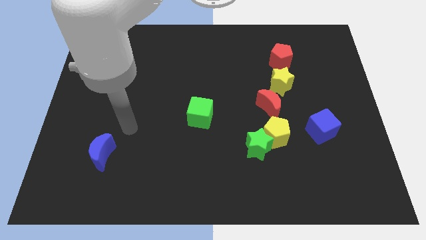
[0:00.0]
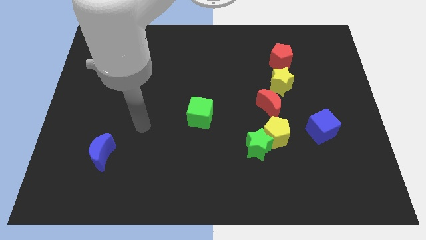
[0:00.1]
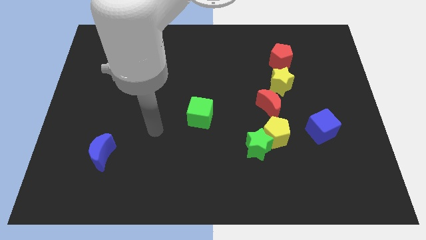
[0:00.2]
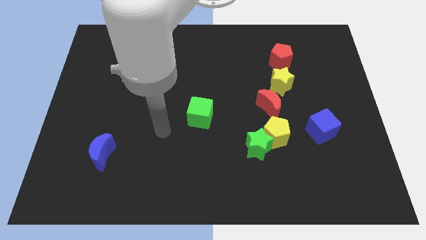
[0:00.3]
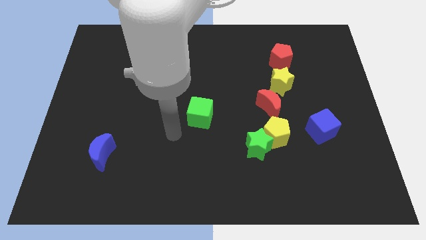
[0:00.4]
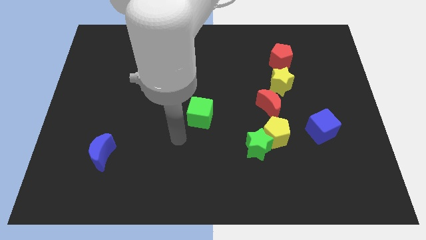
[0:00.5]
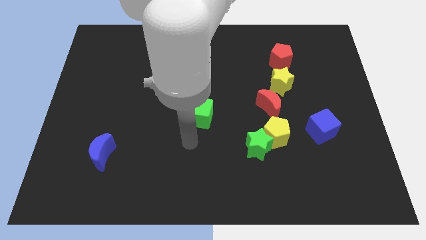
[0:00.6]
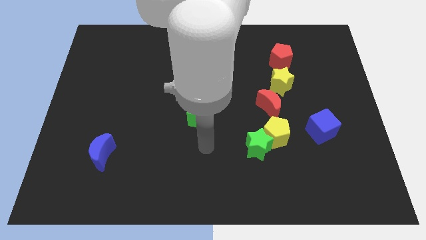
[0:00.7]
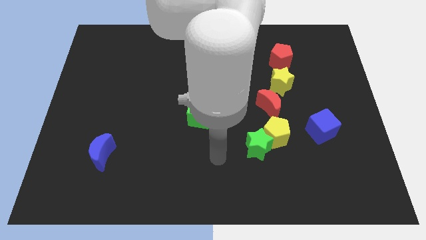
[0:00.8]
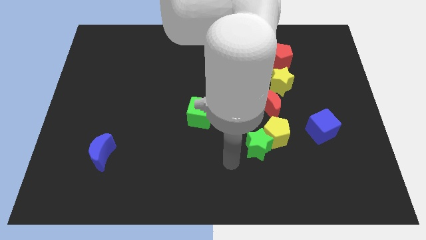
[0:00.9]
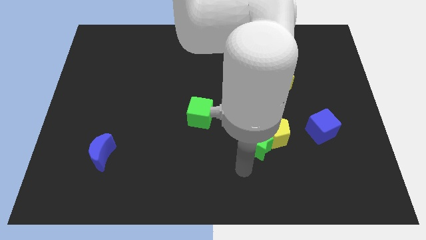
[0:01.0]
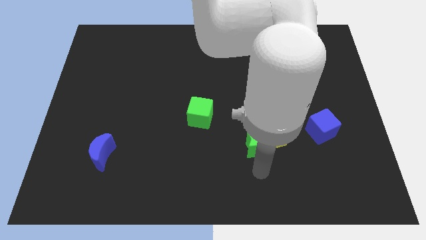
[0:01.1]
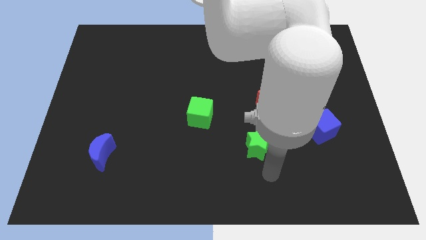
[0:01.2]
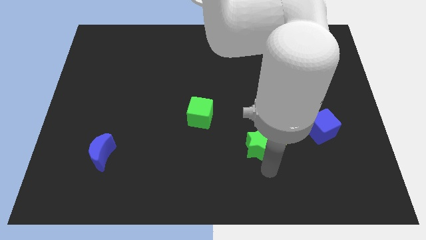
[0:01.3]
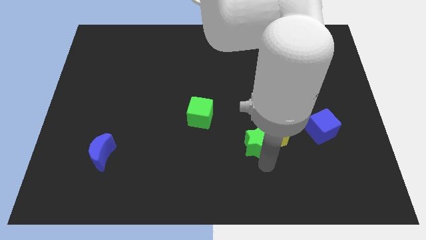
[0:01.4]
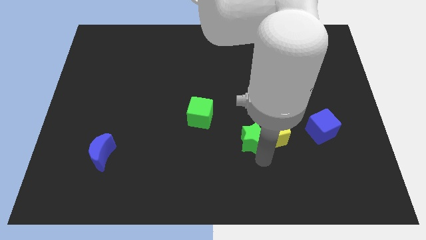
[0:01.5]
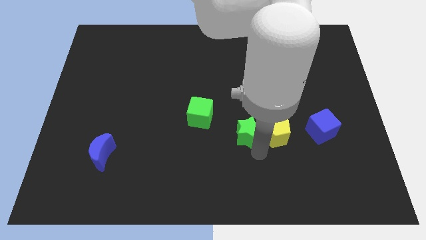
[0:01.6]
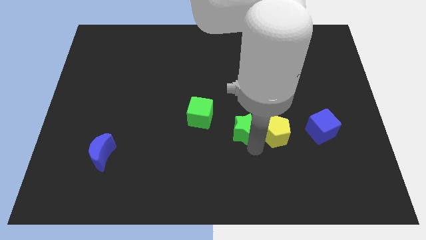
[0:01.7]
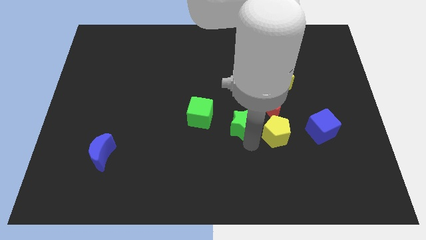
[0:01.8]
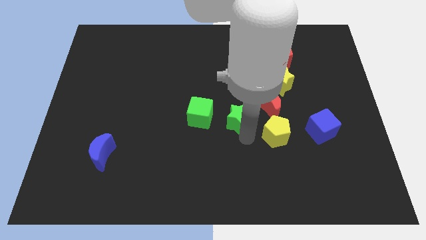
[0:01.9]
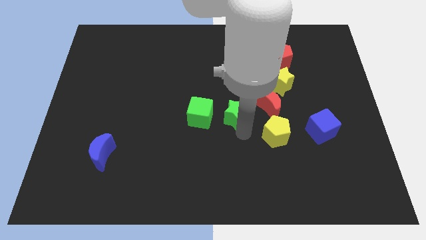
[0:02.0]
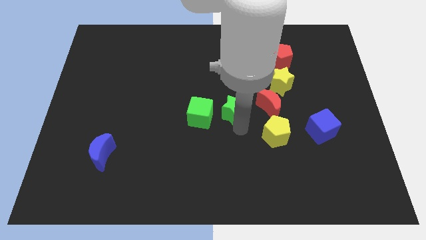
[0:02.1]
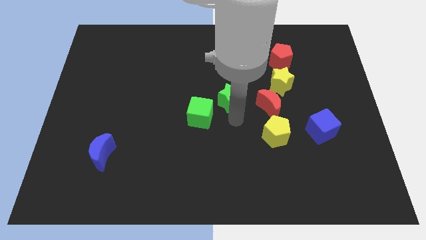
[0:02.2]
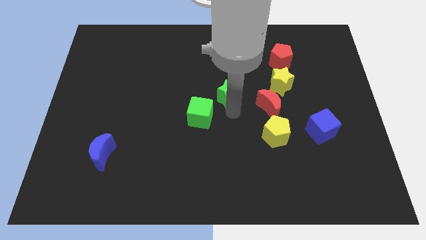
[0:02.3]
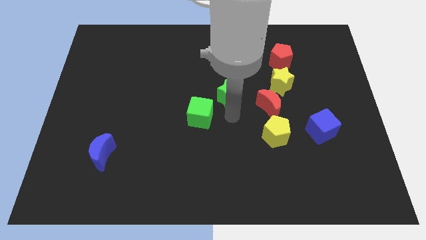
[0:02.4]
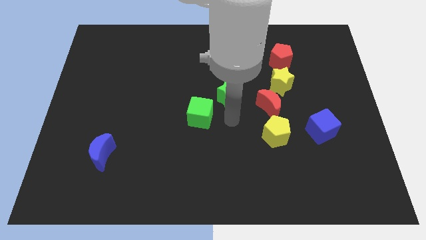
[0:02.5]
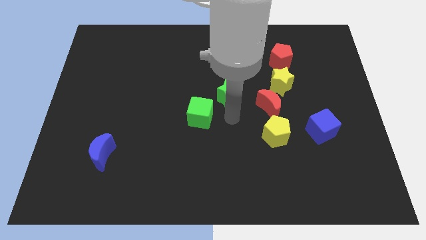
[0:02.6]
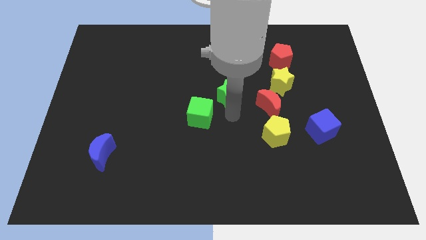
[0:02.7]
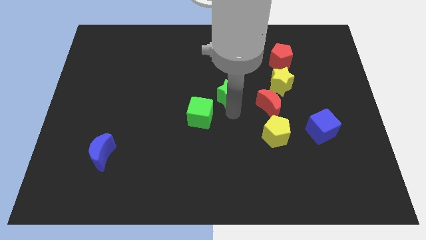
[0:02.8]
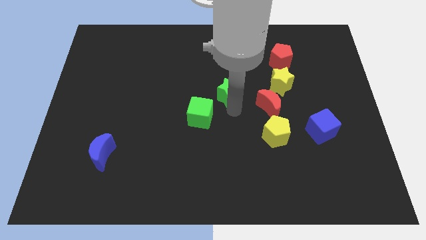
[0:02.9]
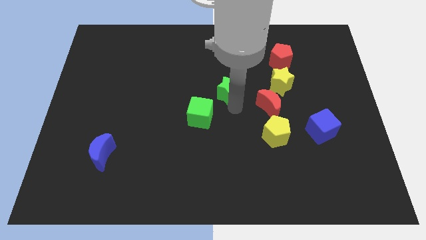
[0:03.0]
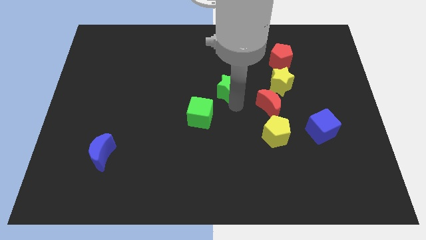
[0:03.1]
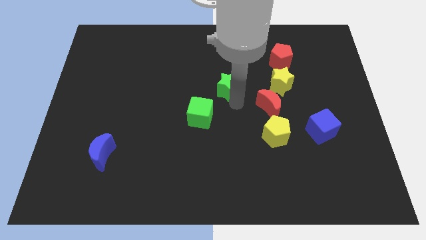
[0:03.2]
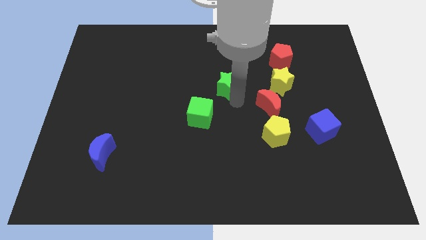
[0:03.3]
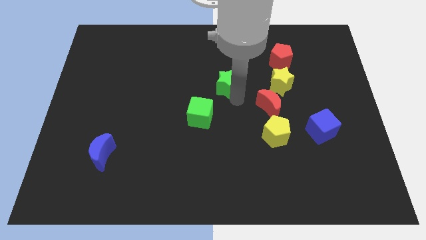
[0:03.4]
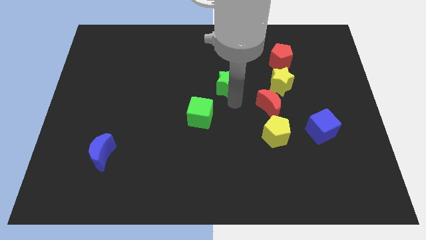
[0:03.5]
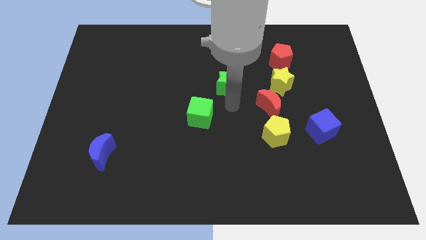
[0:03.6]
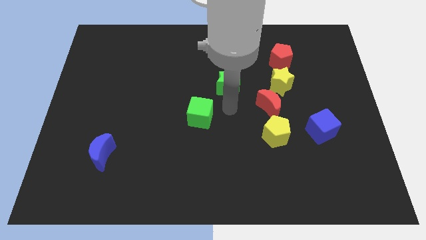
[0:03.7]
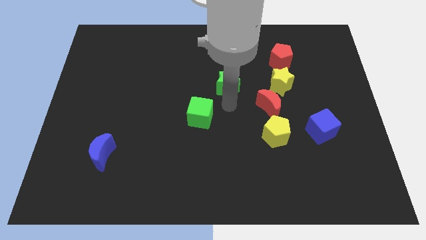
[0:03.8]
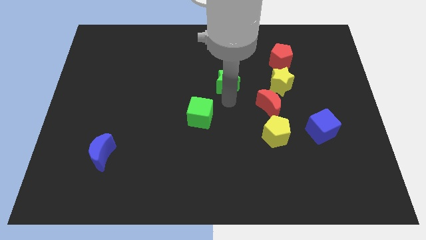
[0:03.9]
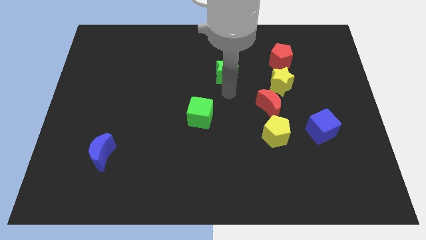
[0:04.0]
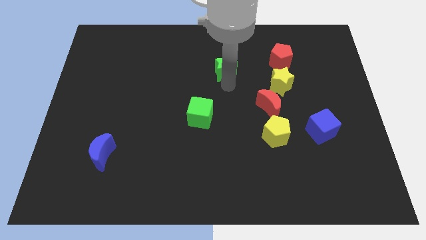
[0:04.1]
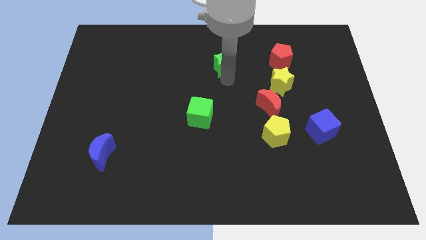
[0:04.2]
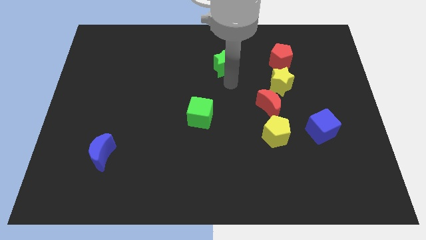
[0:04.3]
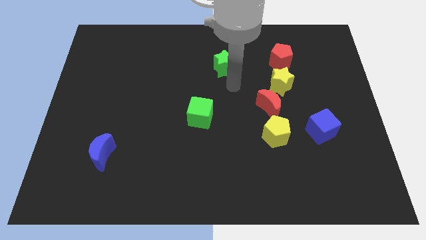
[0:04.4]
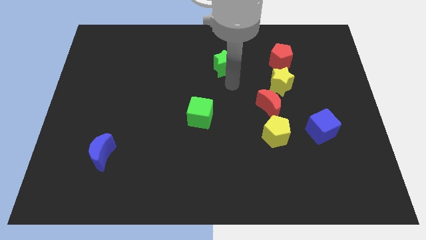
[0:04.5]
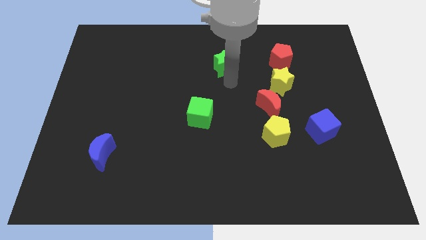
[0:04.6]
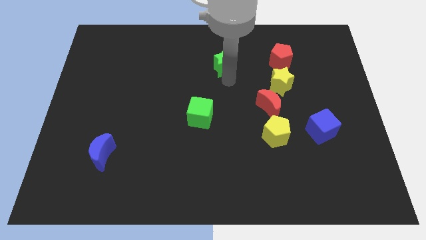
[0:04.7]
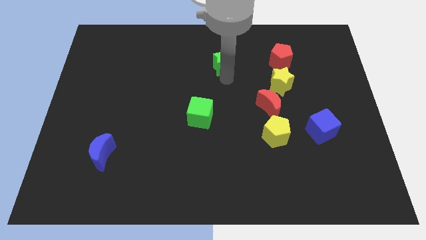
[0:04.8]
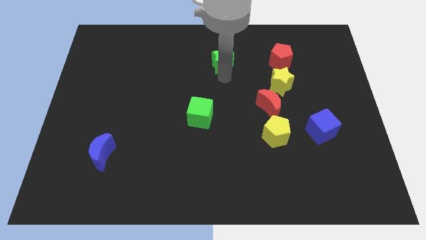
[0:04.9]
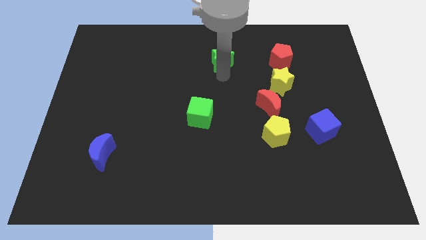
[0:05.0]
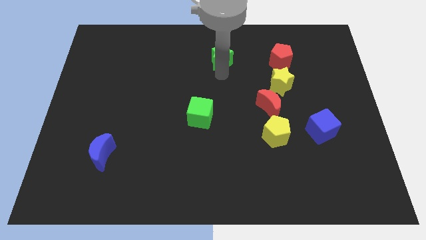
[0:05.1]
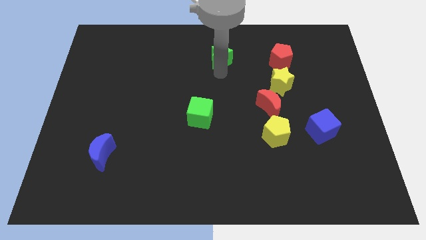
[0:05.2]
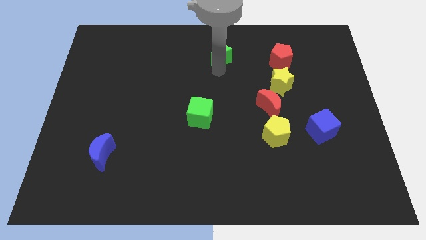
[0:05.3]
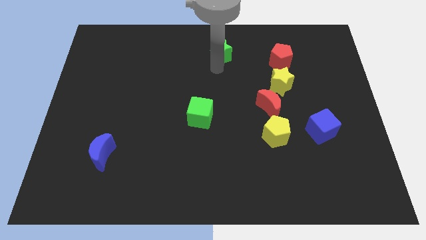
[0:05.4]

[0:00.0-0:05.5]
move the green star to the top side

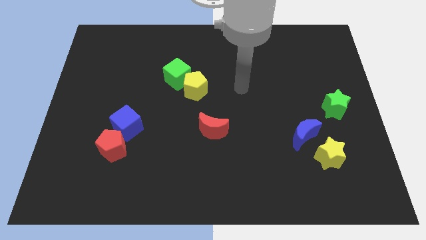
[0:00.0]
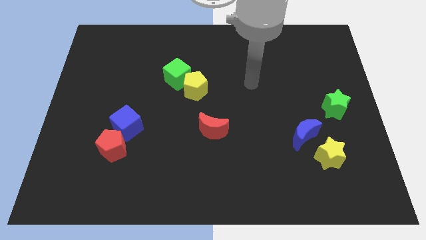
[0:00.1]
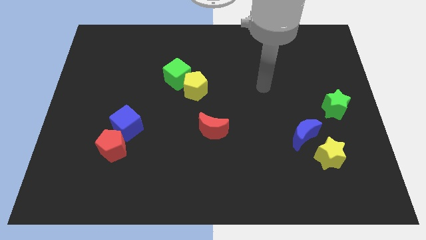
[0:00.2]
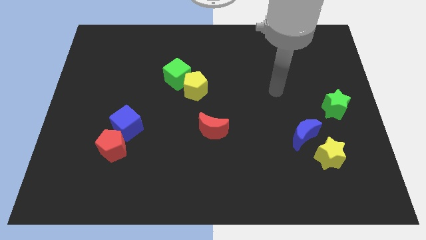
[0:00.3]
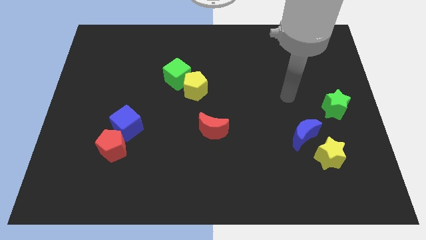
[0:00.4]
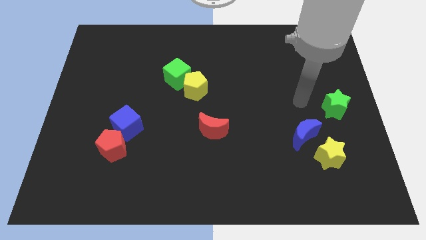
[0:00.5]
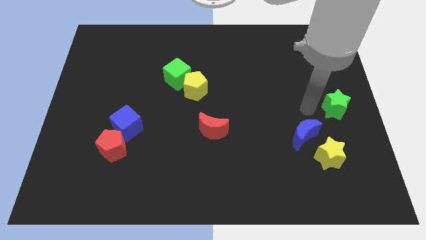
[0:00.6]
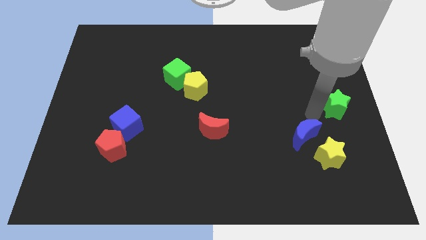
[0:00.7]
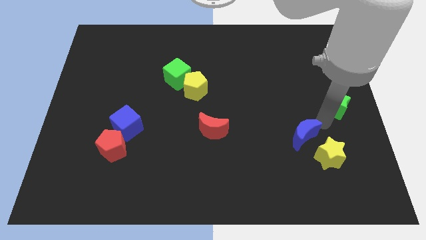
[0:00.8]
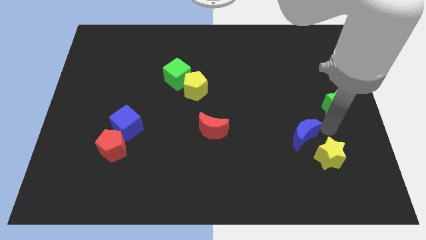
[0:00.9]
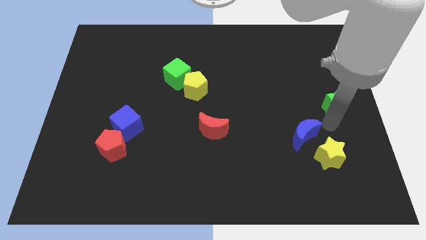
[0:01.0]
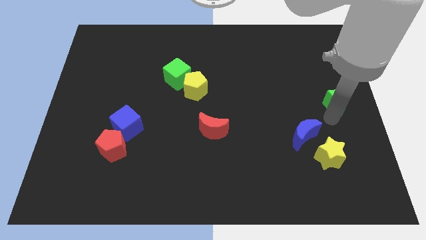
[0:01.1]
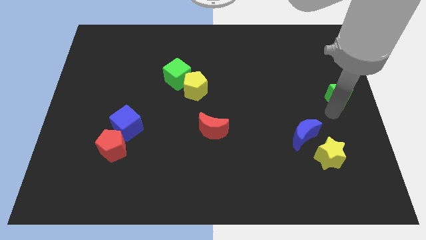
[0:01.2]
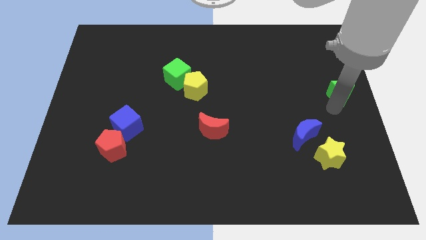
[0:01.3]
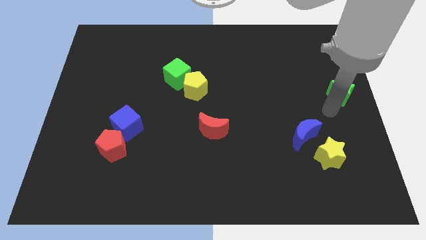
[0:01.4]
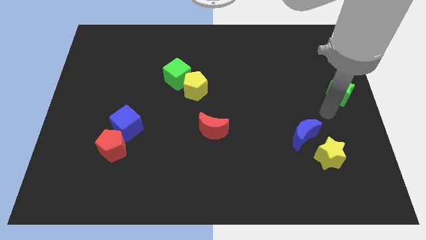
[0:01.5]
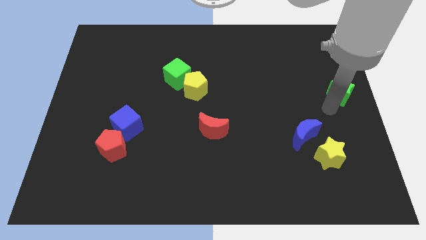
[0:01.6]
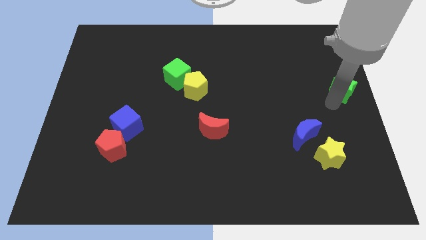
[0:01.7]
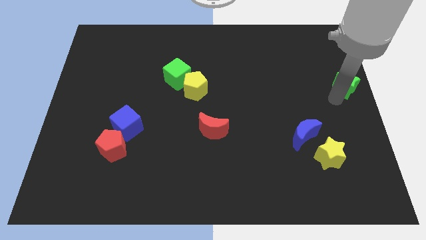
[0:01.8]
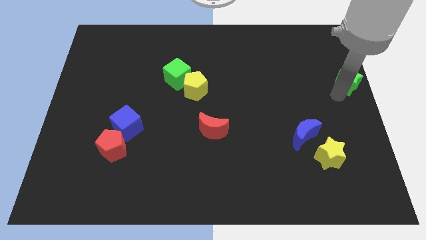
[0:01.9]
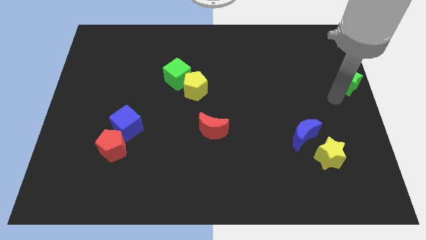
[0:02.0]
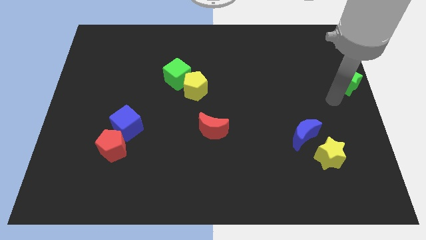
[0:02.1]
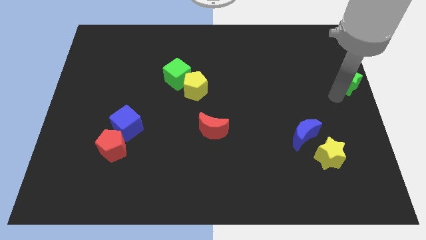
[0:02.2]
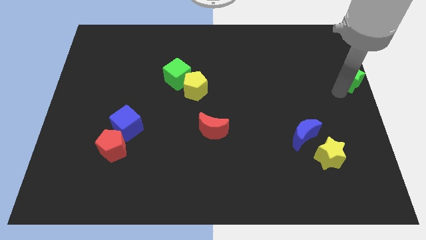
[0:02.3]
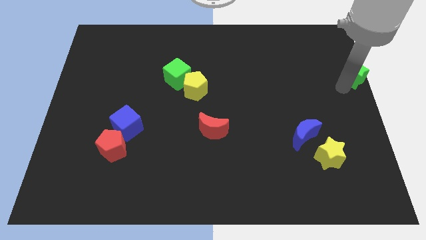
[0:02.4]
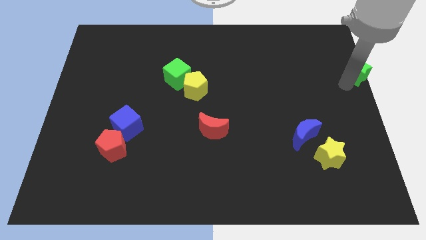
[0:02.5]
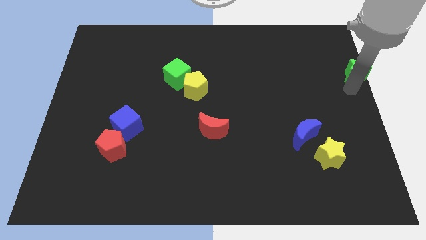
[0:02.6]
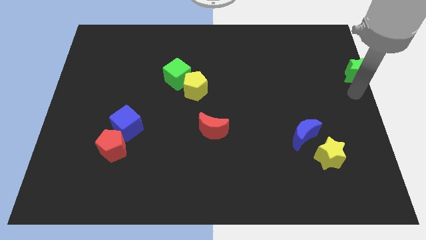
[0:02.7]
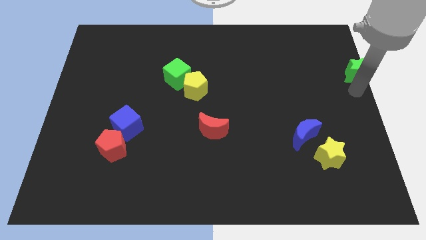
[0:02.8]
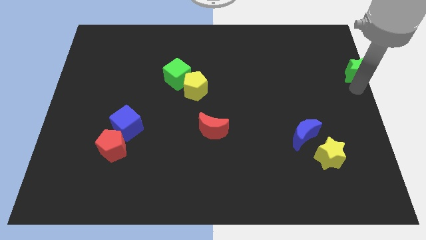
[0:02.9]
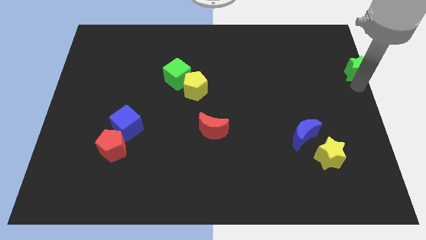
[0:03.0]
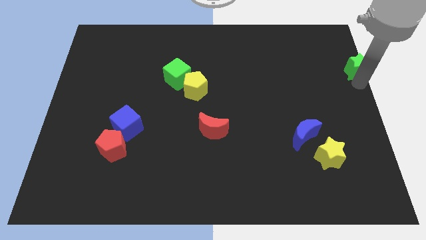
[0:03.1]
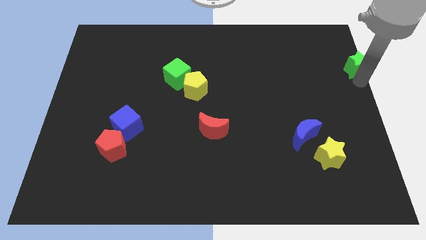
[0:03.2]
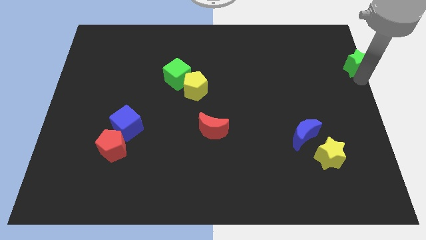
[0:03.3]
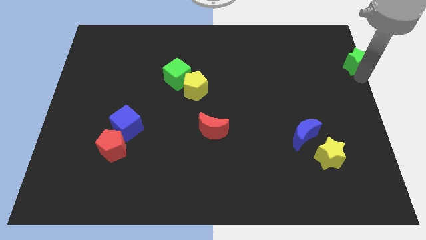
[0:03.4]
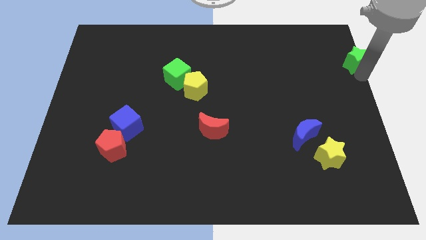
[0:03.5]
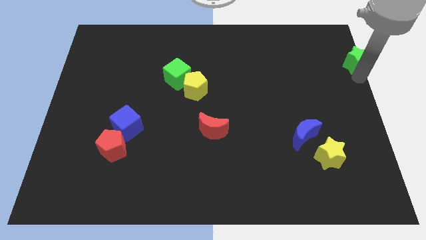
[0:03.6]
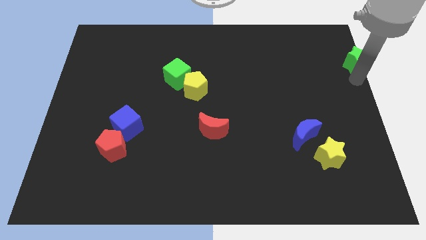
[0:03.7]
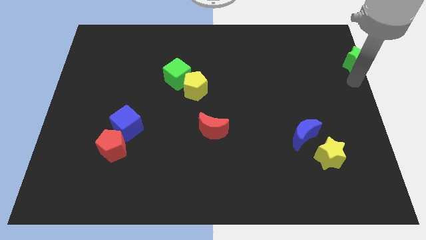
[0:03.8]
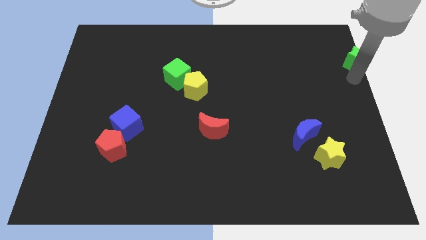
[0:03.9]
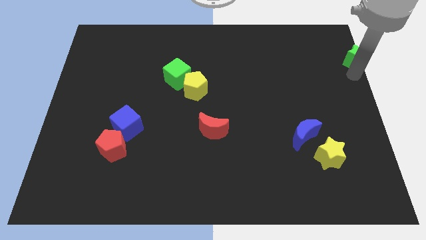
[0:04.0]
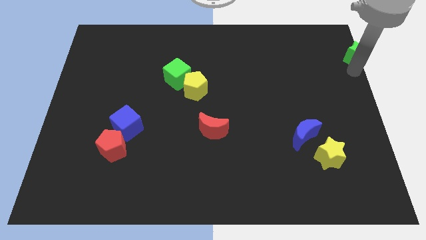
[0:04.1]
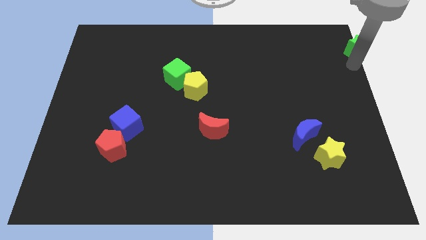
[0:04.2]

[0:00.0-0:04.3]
push the green star to the top right of the board
